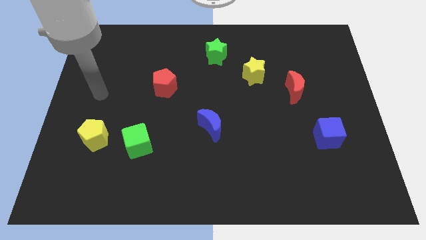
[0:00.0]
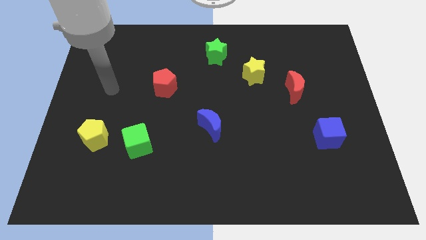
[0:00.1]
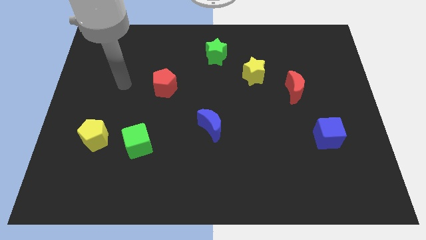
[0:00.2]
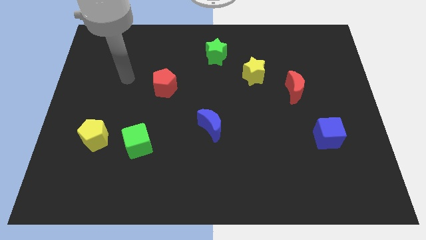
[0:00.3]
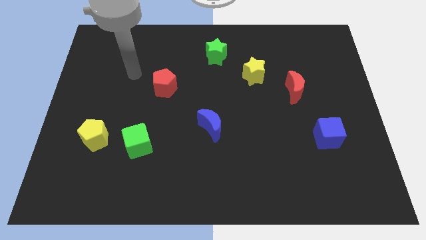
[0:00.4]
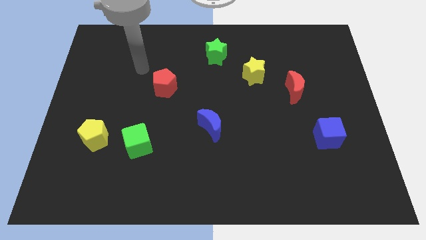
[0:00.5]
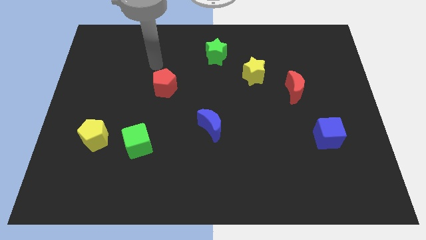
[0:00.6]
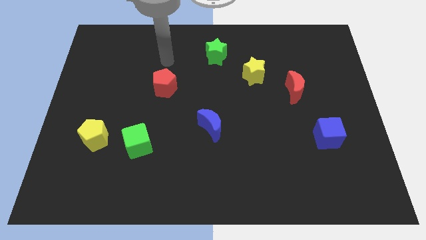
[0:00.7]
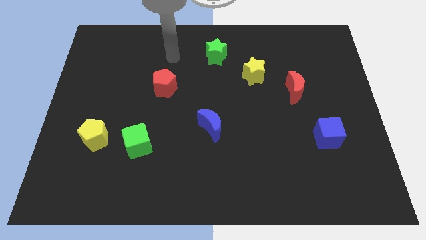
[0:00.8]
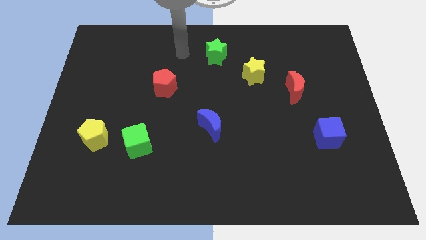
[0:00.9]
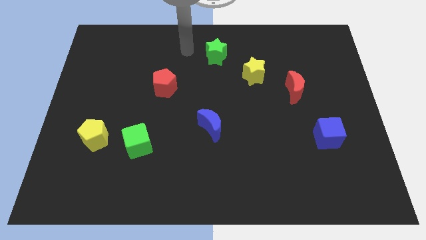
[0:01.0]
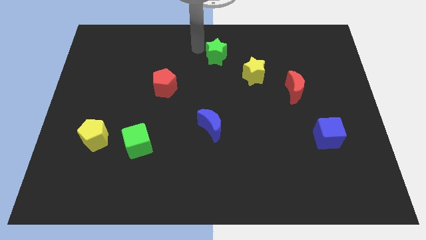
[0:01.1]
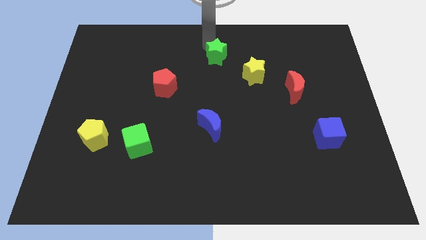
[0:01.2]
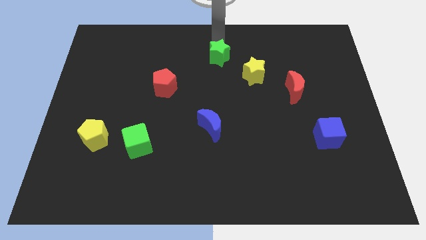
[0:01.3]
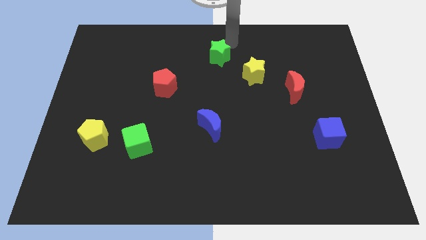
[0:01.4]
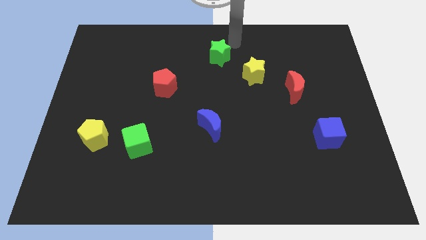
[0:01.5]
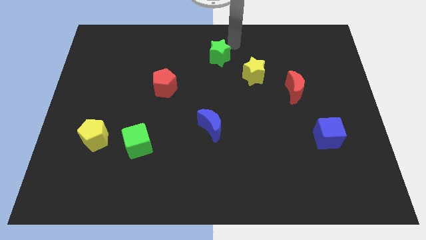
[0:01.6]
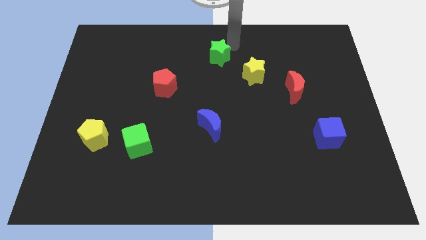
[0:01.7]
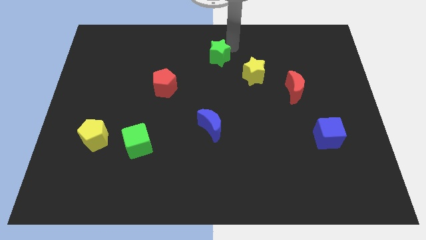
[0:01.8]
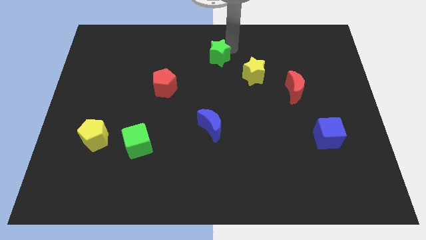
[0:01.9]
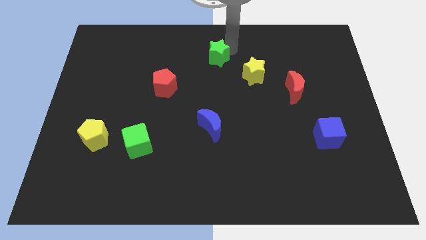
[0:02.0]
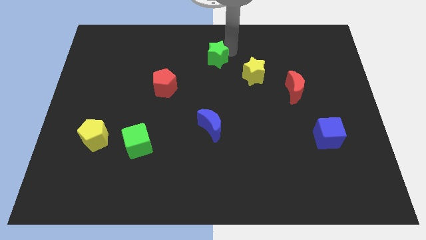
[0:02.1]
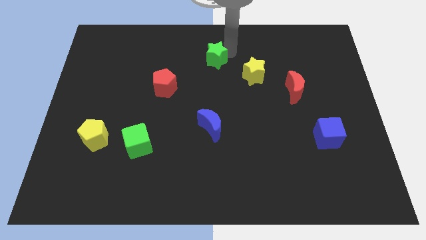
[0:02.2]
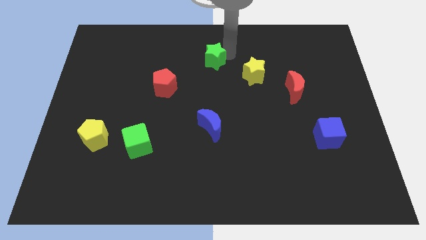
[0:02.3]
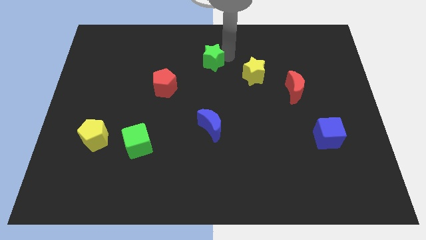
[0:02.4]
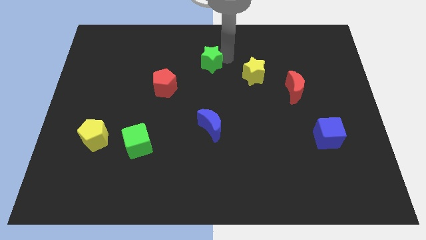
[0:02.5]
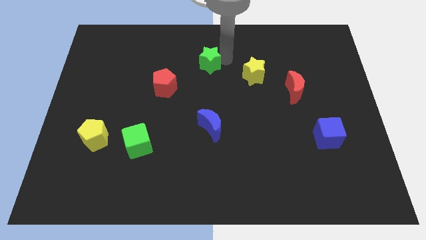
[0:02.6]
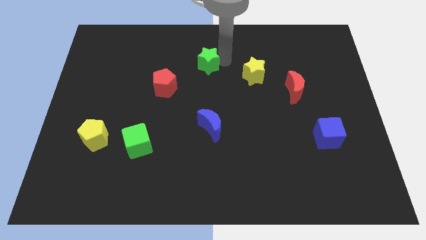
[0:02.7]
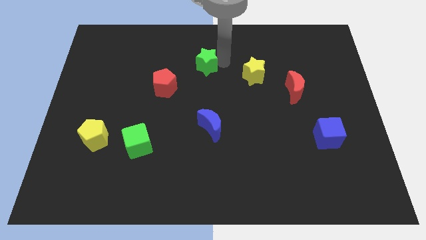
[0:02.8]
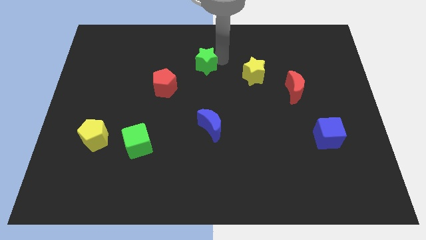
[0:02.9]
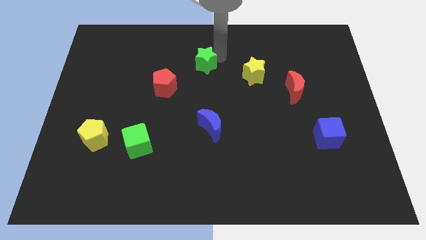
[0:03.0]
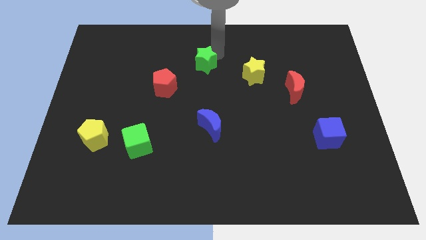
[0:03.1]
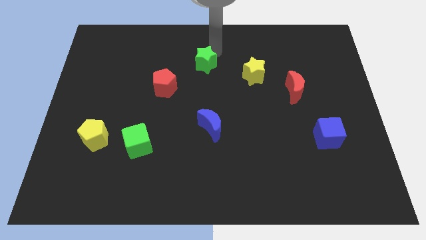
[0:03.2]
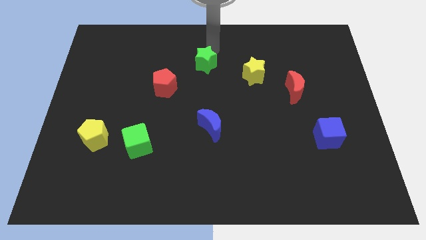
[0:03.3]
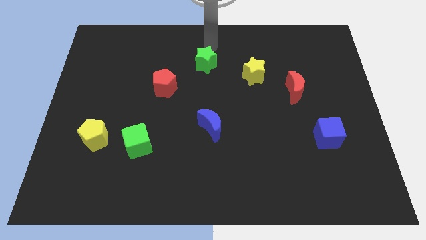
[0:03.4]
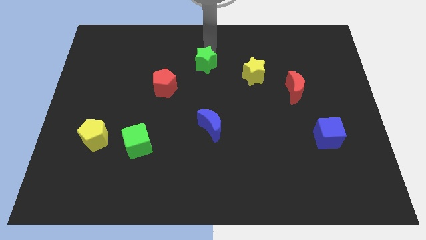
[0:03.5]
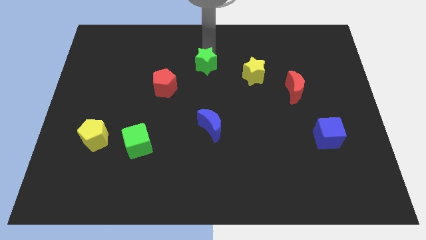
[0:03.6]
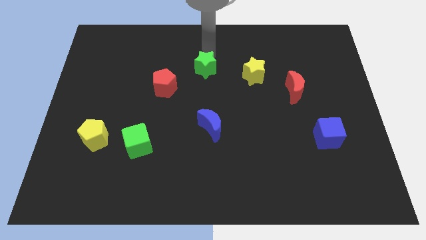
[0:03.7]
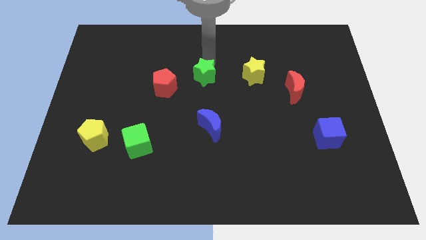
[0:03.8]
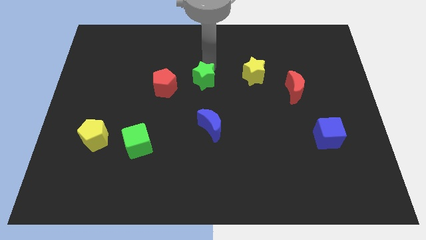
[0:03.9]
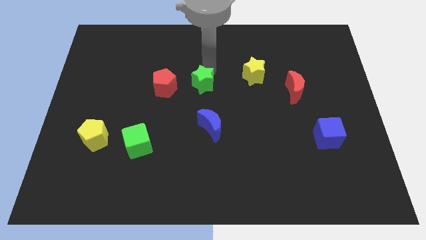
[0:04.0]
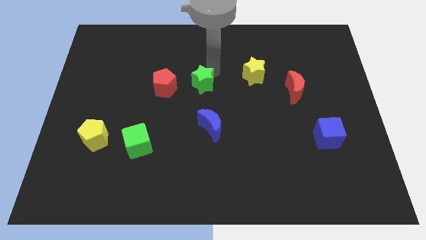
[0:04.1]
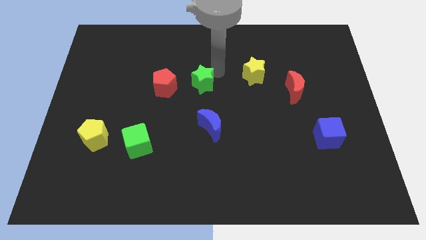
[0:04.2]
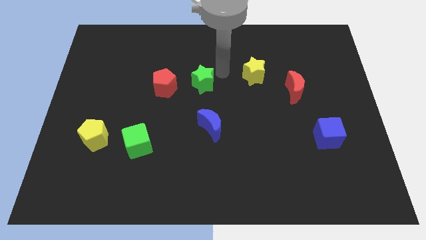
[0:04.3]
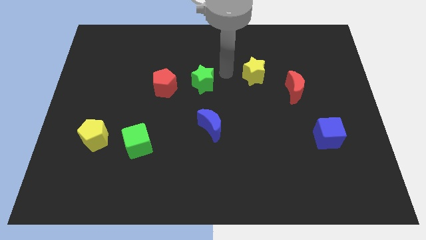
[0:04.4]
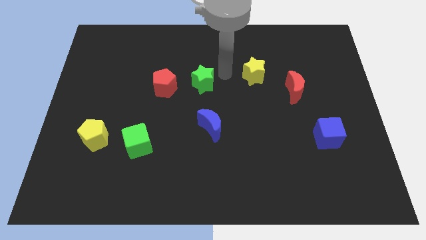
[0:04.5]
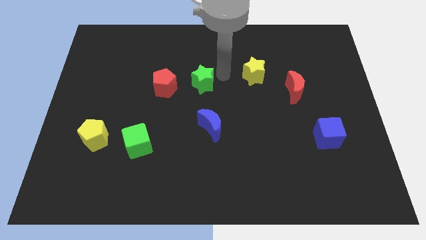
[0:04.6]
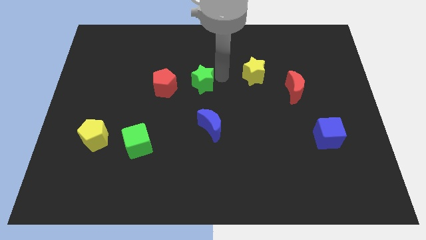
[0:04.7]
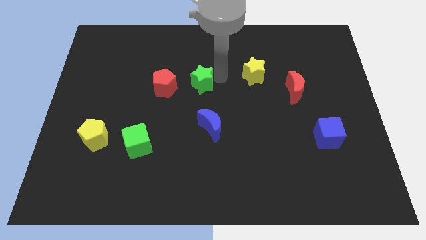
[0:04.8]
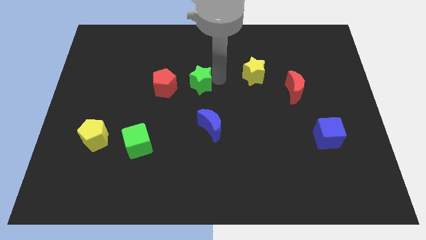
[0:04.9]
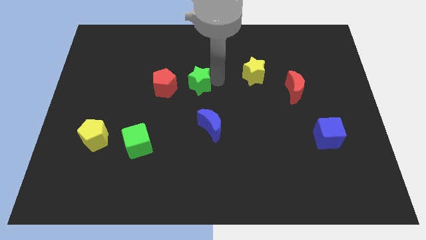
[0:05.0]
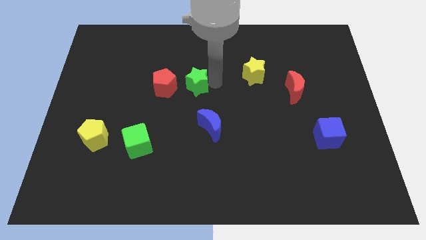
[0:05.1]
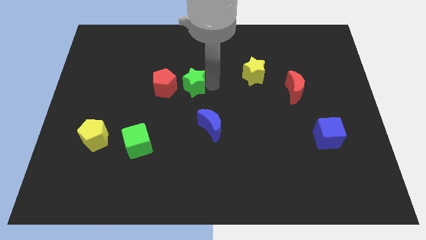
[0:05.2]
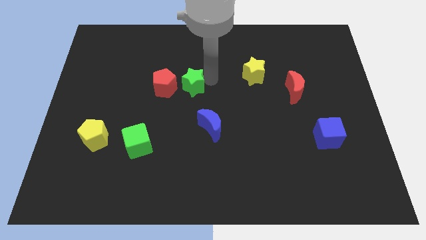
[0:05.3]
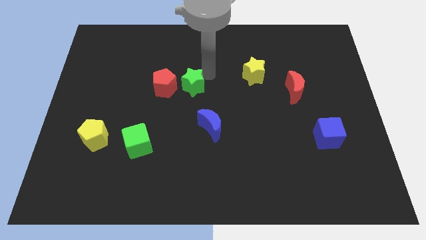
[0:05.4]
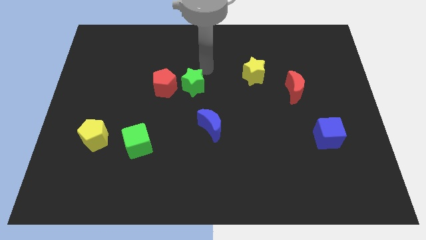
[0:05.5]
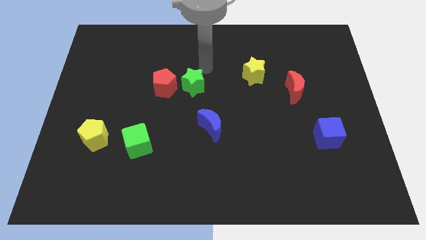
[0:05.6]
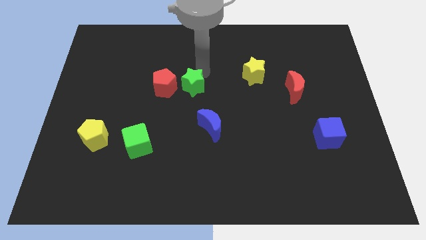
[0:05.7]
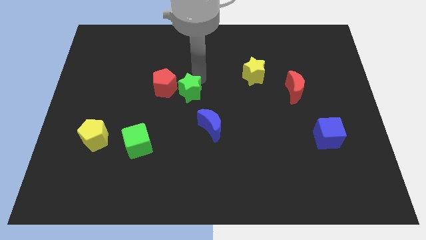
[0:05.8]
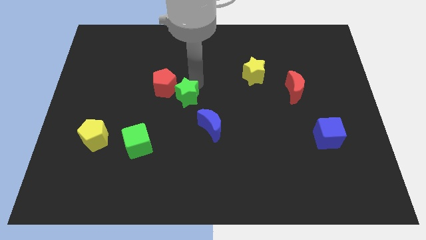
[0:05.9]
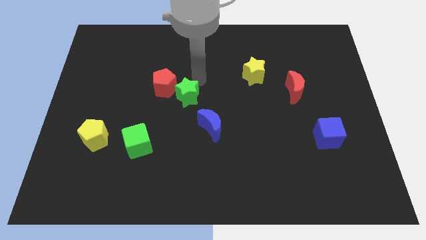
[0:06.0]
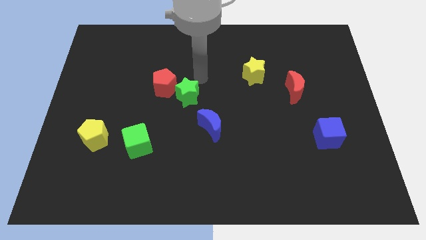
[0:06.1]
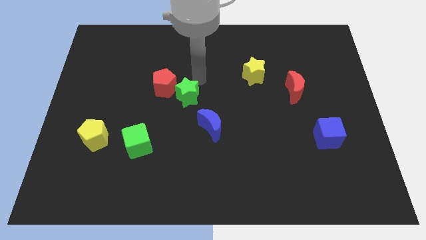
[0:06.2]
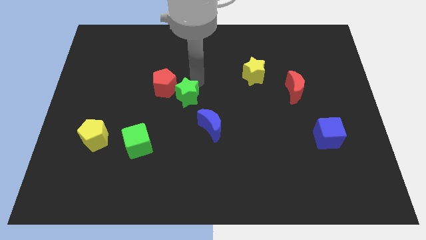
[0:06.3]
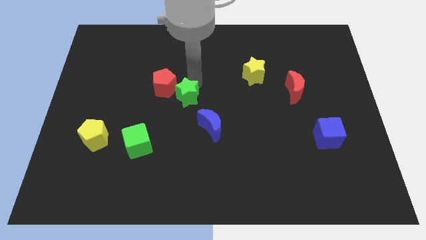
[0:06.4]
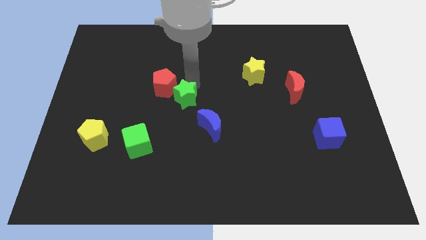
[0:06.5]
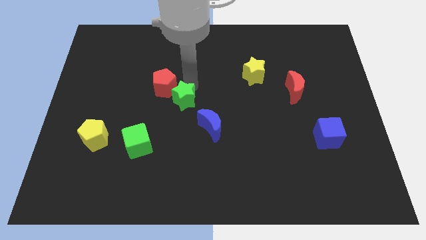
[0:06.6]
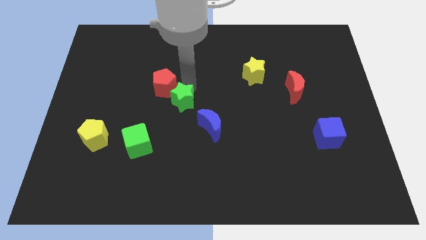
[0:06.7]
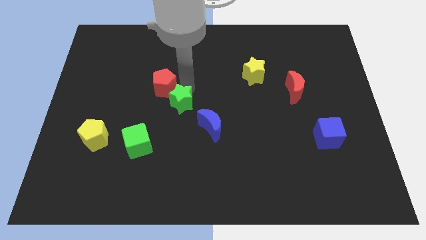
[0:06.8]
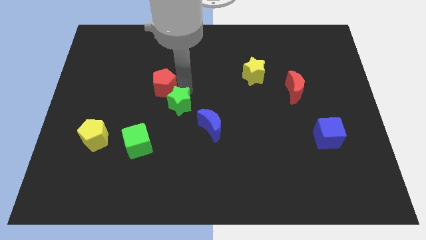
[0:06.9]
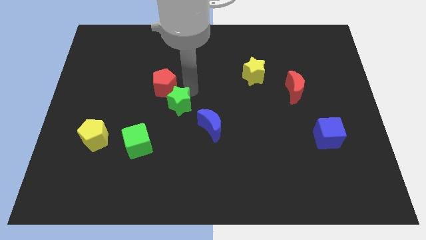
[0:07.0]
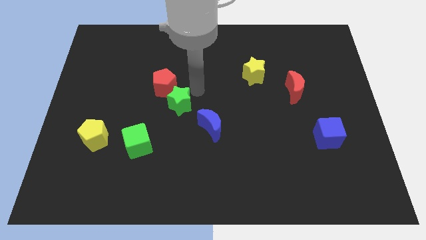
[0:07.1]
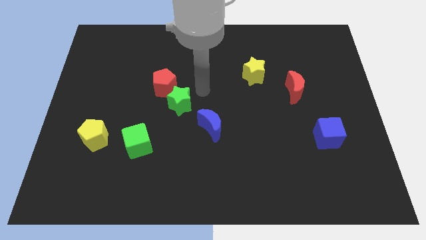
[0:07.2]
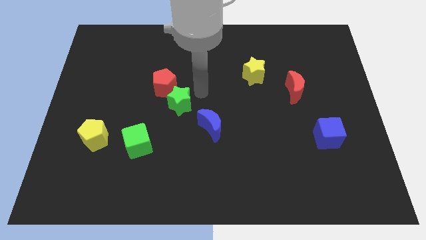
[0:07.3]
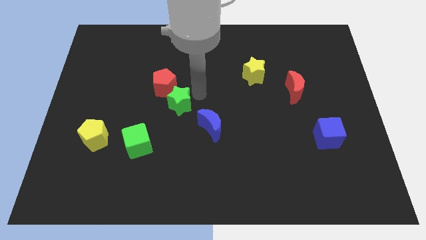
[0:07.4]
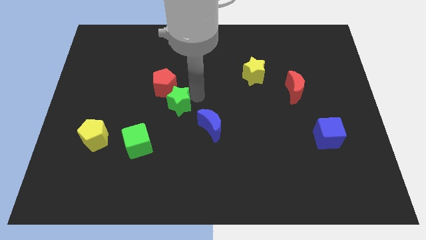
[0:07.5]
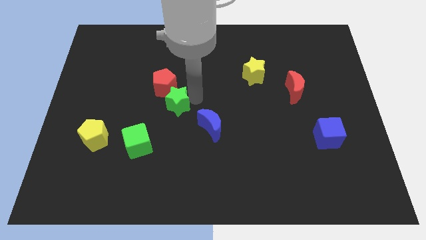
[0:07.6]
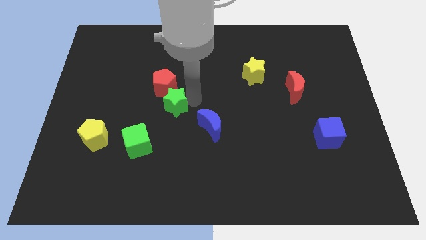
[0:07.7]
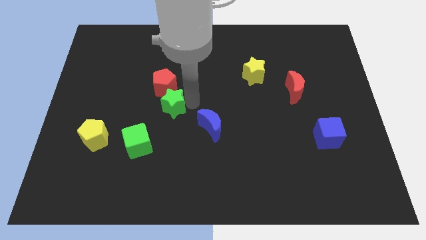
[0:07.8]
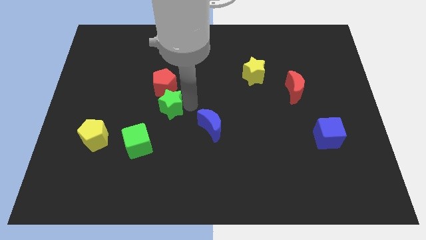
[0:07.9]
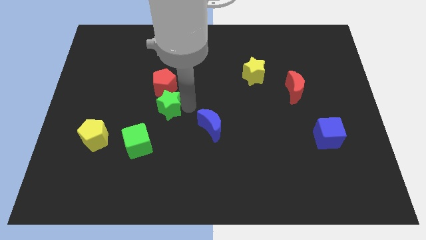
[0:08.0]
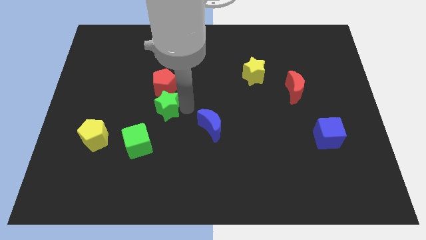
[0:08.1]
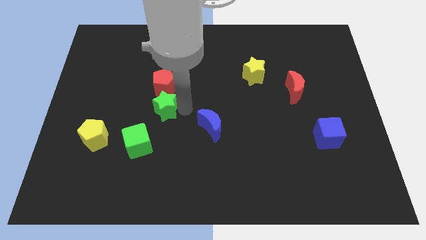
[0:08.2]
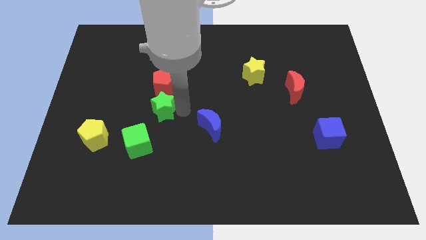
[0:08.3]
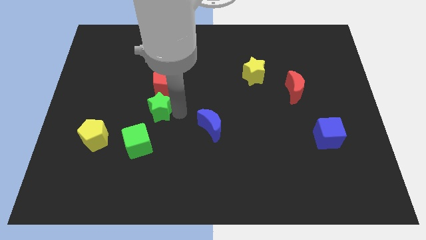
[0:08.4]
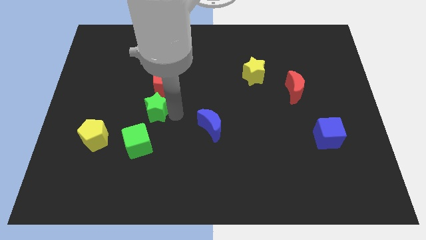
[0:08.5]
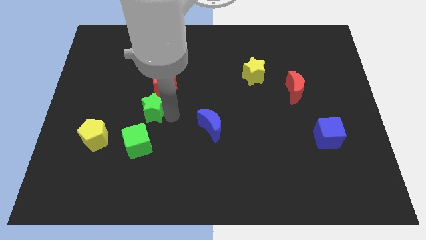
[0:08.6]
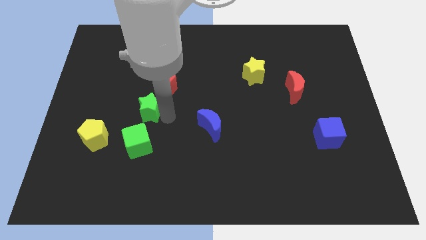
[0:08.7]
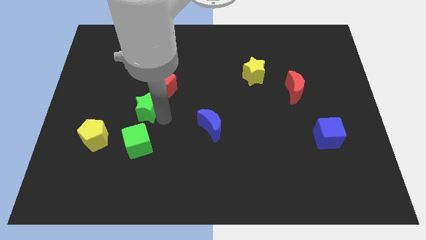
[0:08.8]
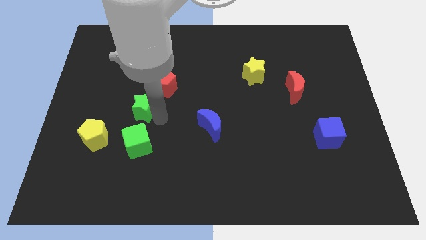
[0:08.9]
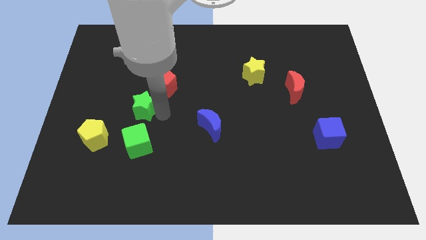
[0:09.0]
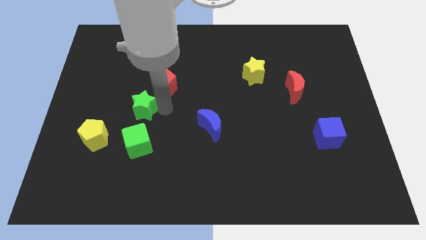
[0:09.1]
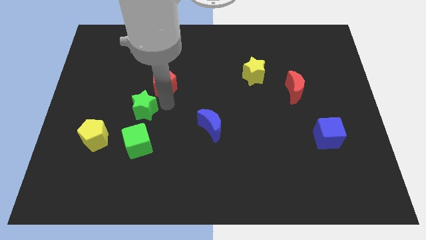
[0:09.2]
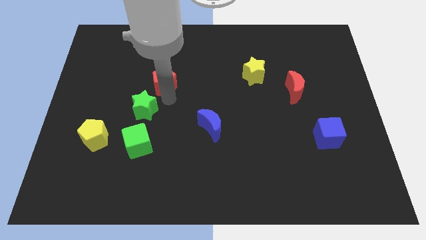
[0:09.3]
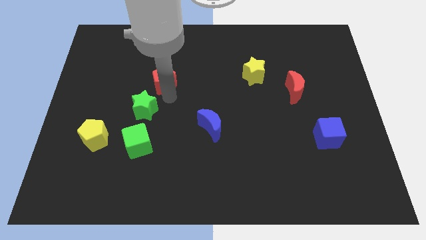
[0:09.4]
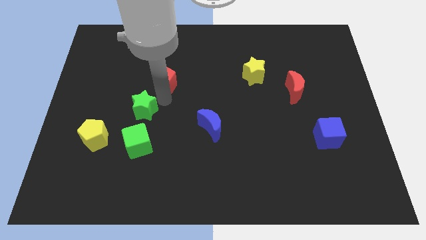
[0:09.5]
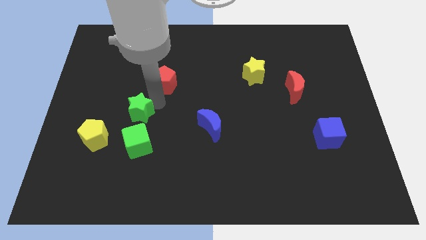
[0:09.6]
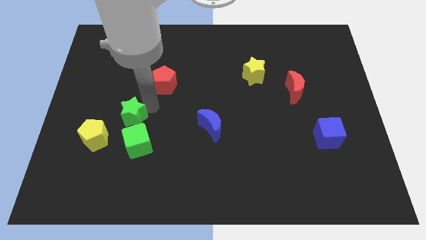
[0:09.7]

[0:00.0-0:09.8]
slide the green star to the top left of the green cube
